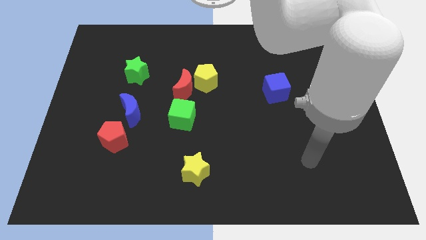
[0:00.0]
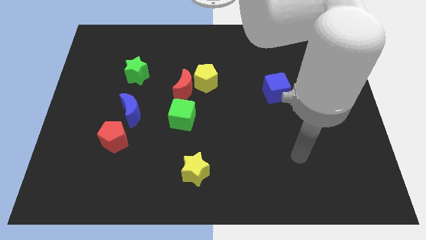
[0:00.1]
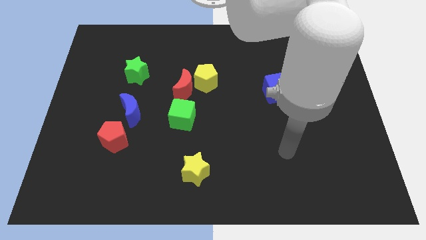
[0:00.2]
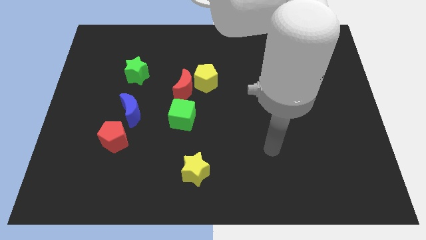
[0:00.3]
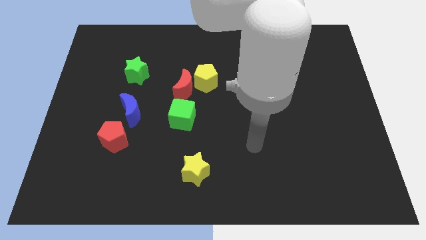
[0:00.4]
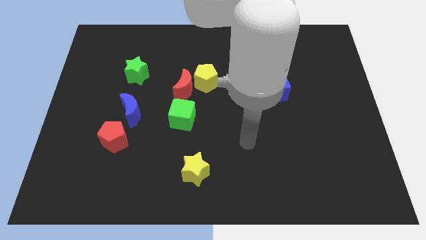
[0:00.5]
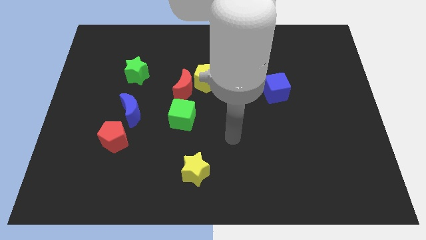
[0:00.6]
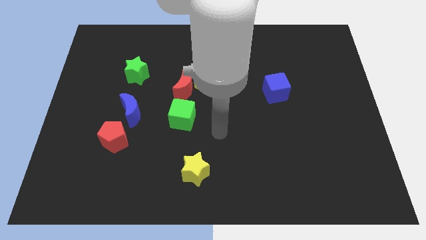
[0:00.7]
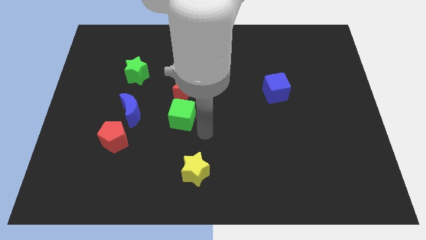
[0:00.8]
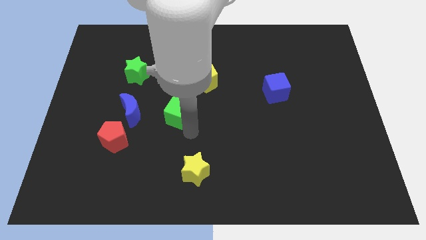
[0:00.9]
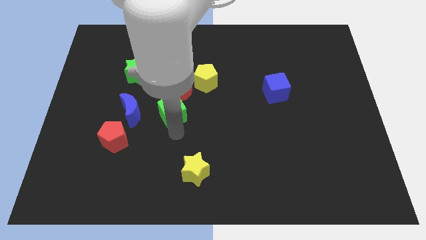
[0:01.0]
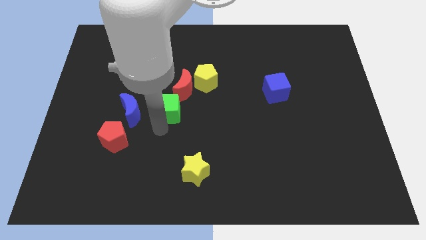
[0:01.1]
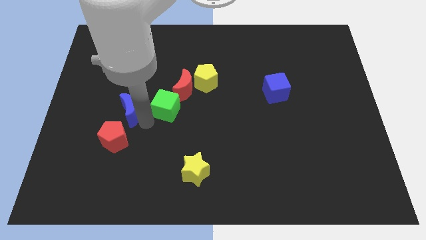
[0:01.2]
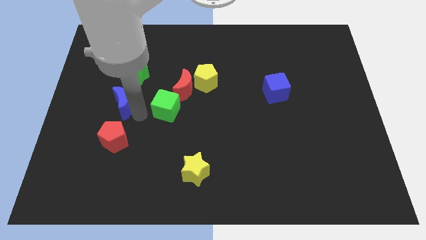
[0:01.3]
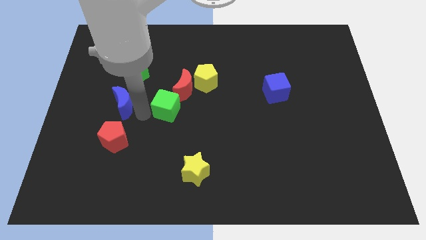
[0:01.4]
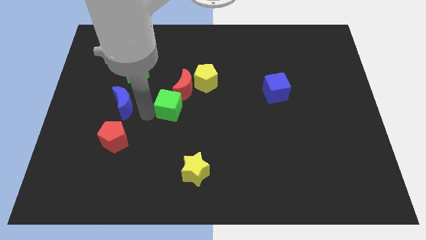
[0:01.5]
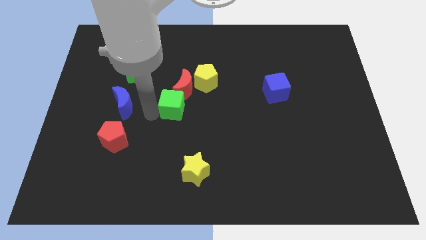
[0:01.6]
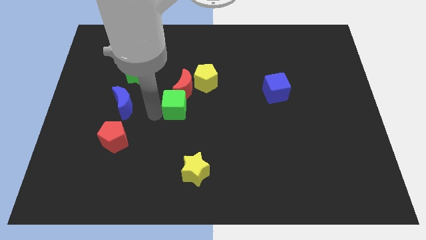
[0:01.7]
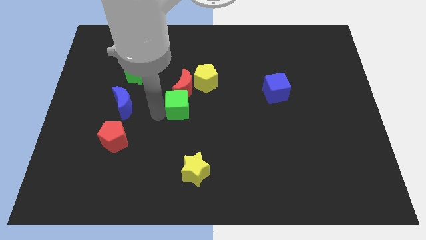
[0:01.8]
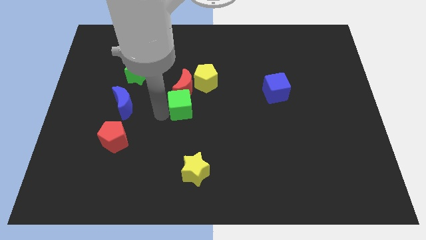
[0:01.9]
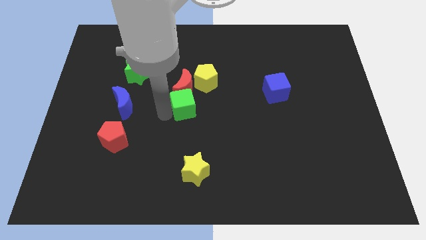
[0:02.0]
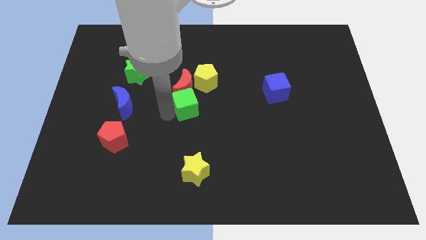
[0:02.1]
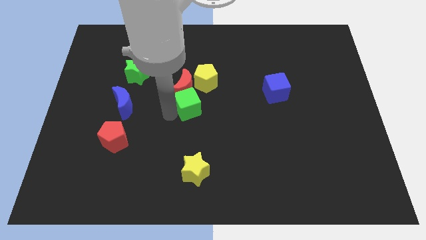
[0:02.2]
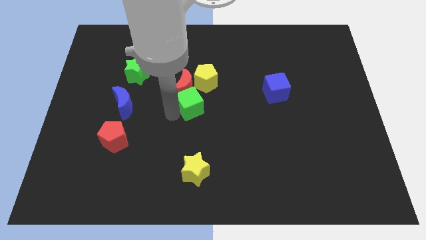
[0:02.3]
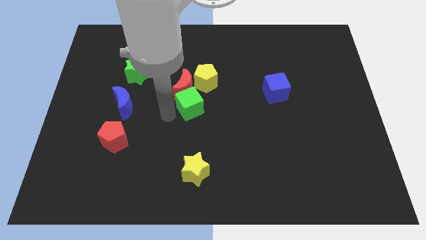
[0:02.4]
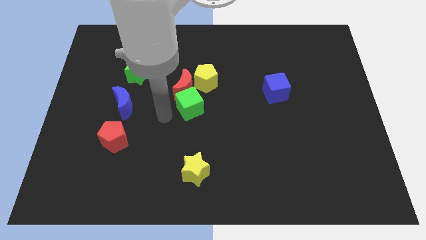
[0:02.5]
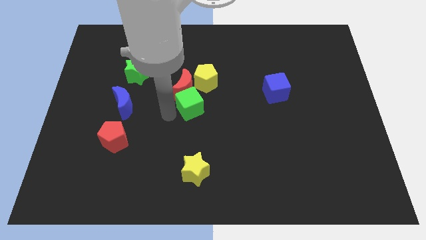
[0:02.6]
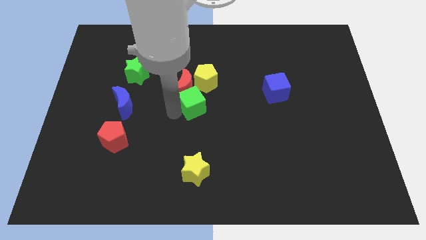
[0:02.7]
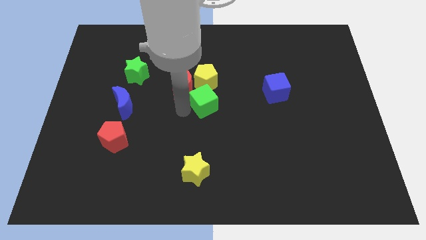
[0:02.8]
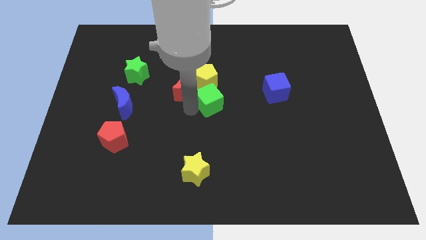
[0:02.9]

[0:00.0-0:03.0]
push the green cube a little diagonally upwards and to the right

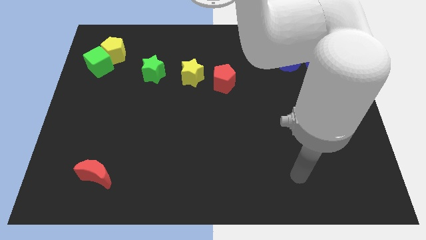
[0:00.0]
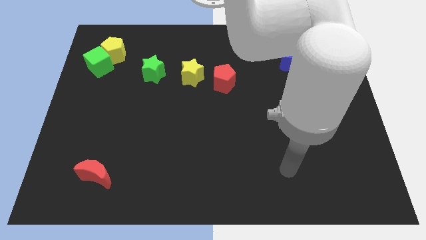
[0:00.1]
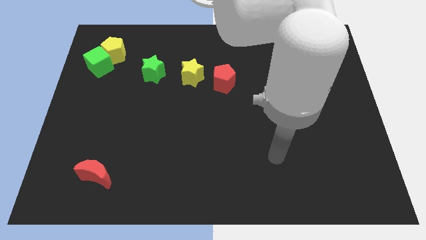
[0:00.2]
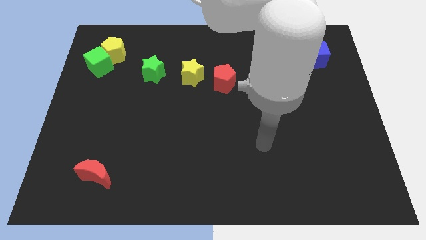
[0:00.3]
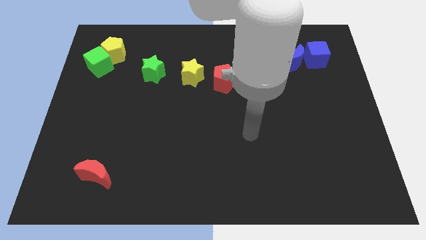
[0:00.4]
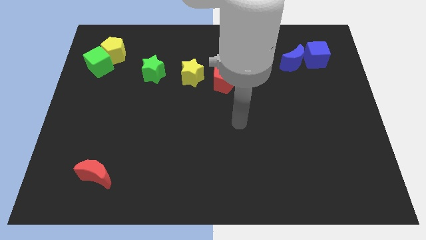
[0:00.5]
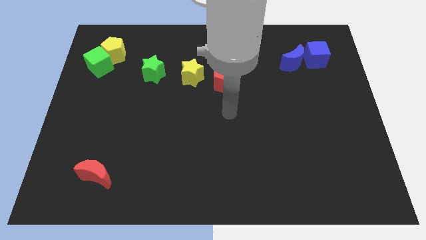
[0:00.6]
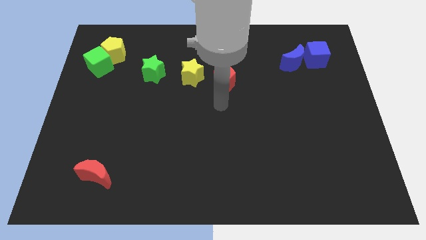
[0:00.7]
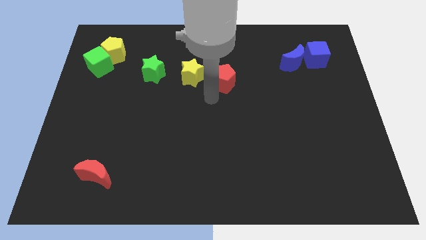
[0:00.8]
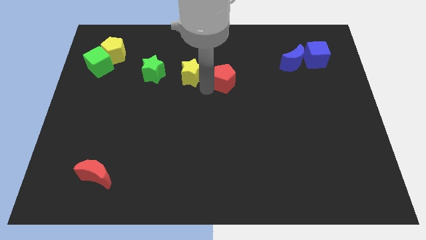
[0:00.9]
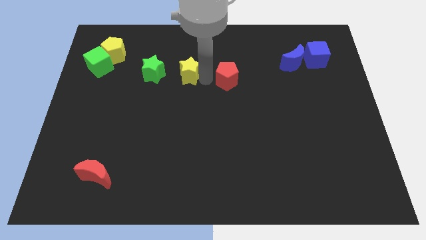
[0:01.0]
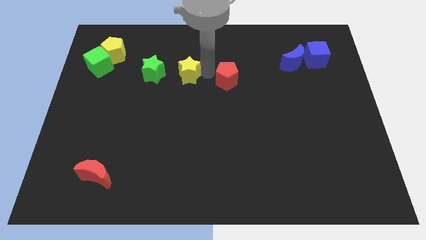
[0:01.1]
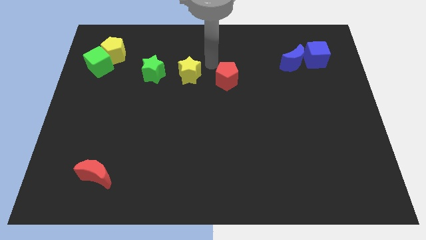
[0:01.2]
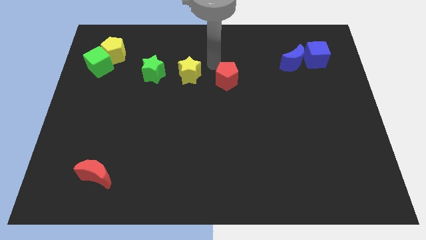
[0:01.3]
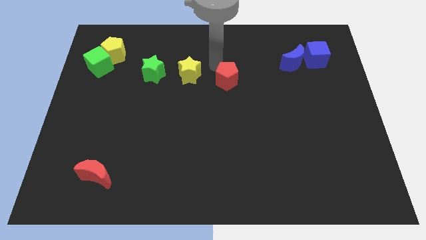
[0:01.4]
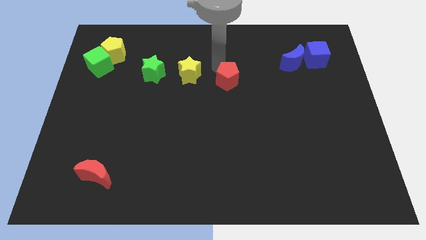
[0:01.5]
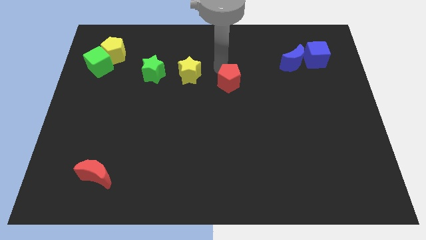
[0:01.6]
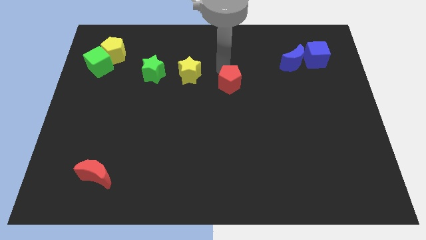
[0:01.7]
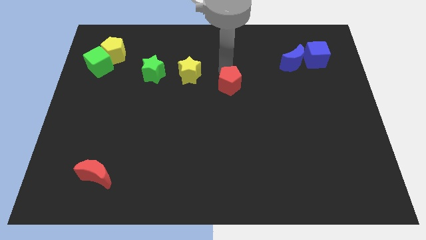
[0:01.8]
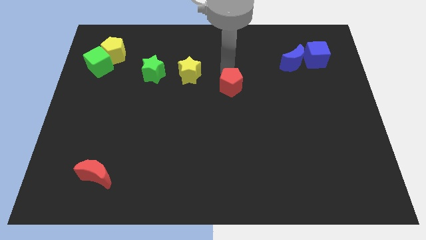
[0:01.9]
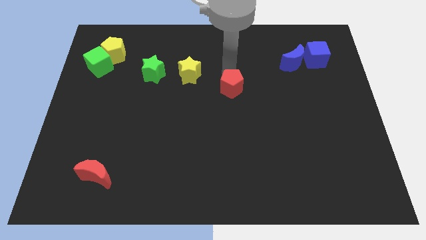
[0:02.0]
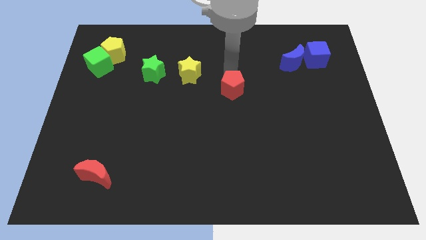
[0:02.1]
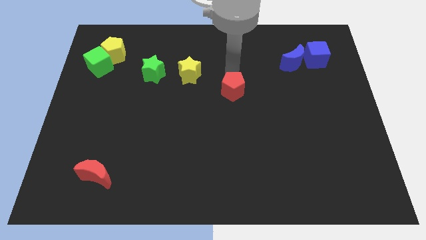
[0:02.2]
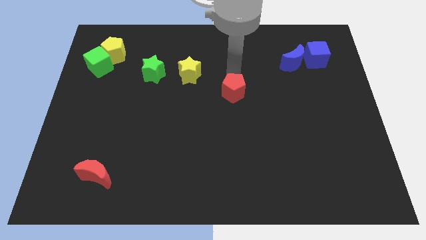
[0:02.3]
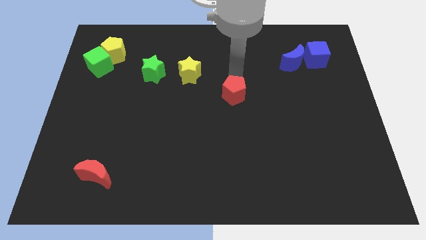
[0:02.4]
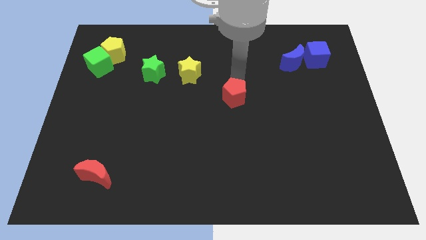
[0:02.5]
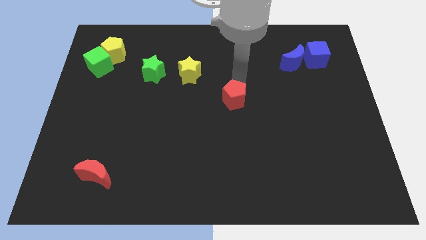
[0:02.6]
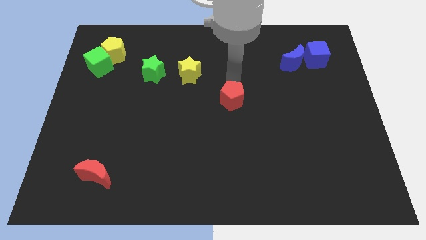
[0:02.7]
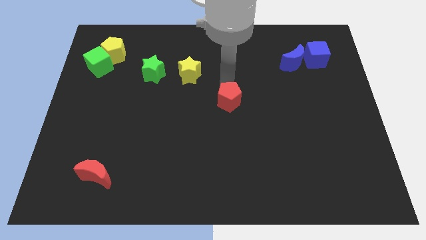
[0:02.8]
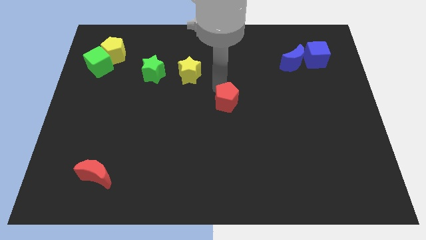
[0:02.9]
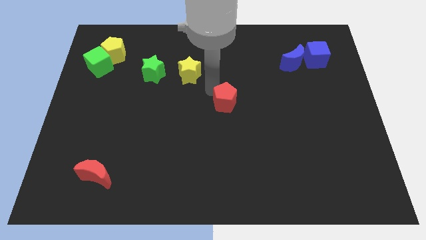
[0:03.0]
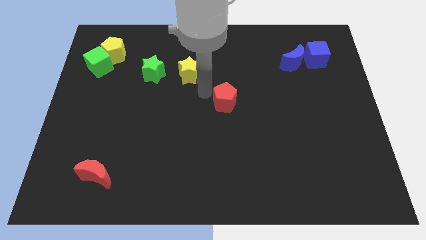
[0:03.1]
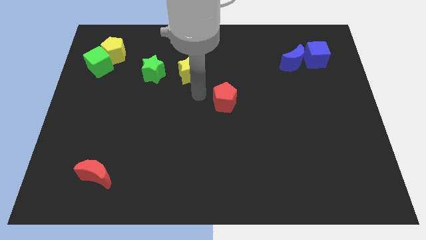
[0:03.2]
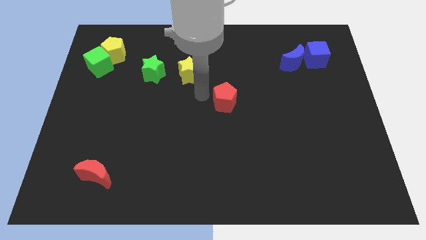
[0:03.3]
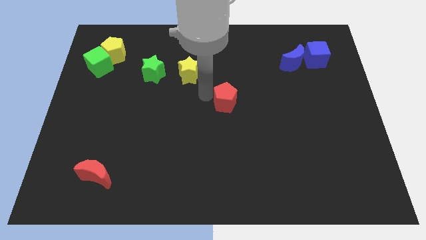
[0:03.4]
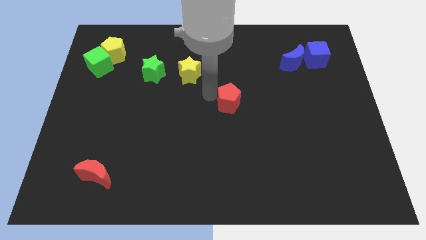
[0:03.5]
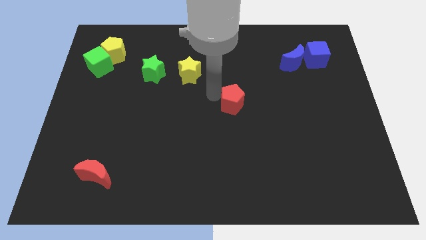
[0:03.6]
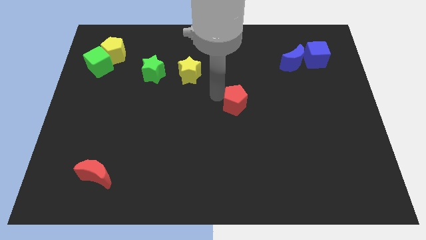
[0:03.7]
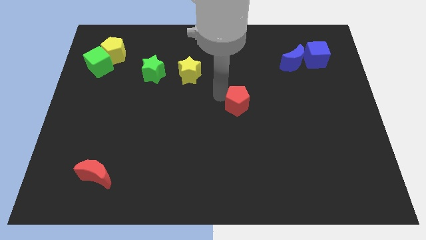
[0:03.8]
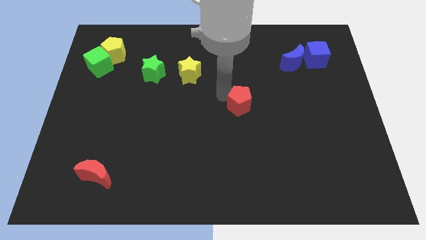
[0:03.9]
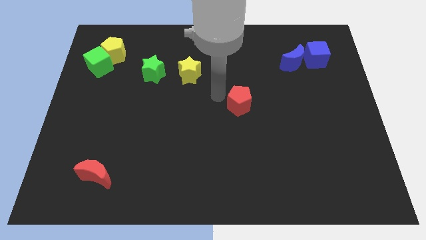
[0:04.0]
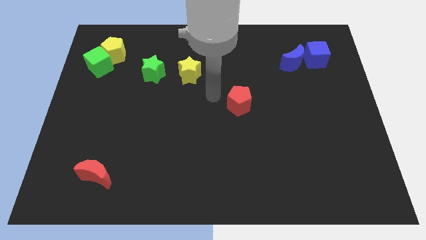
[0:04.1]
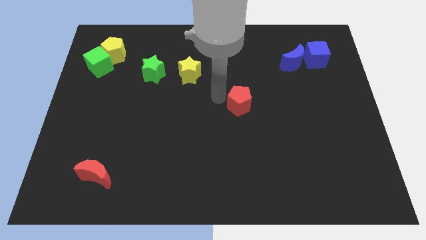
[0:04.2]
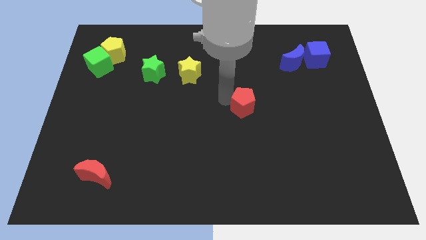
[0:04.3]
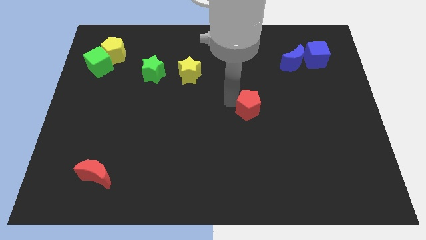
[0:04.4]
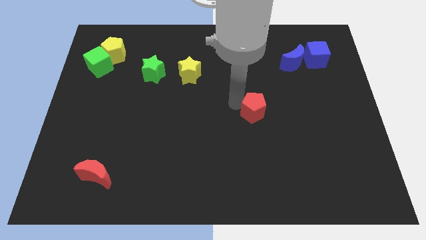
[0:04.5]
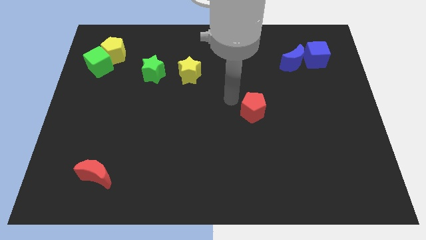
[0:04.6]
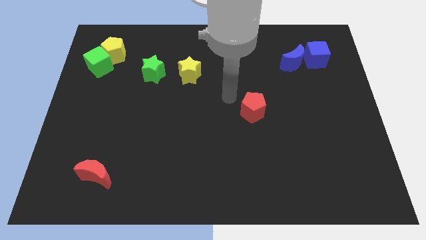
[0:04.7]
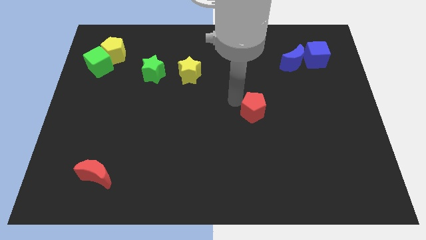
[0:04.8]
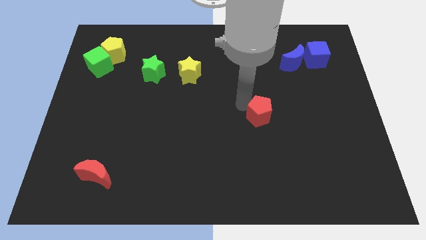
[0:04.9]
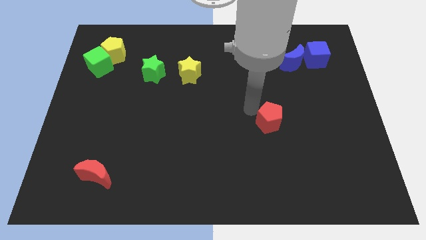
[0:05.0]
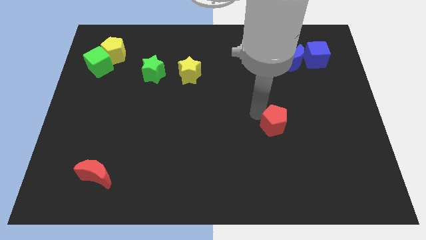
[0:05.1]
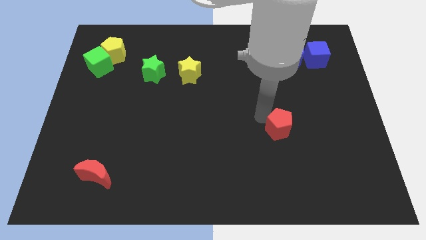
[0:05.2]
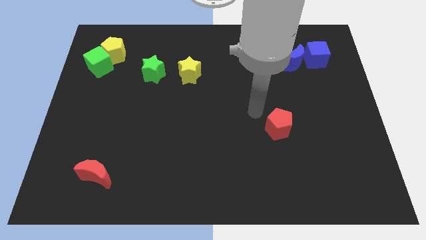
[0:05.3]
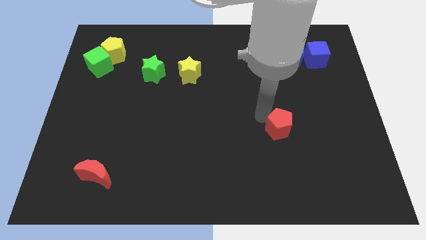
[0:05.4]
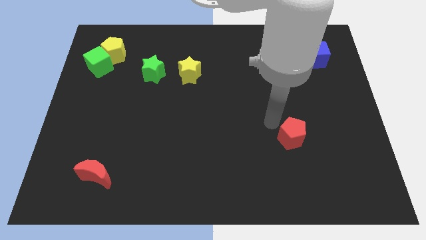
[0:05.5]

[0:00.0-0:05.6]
slide the red pentagon downwards and right diagonally
